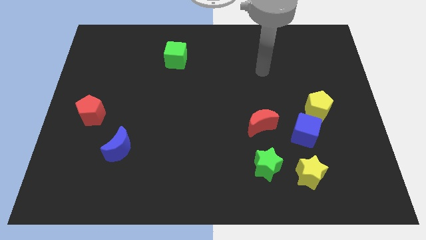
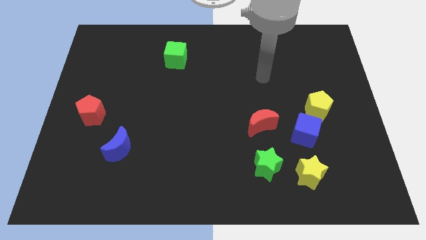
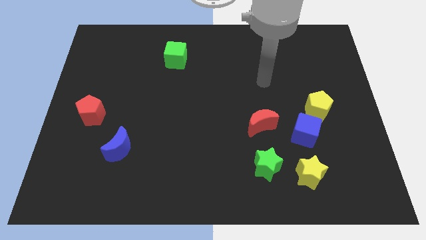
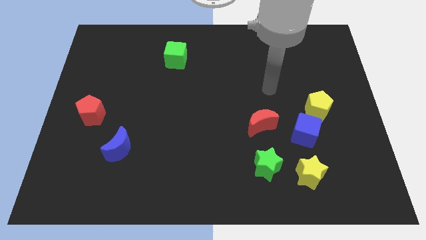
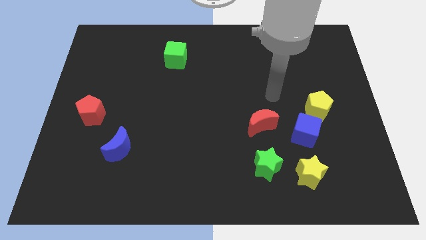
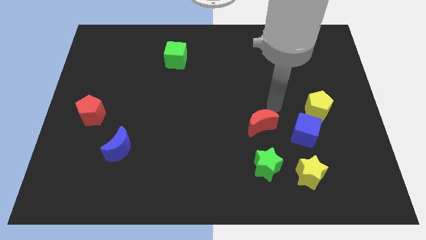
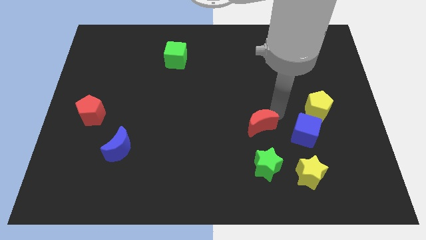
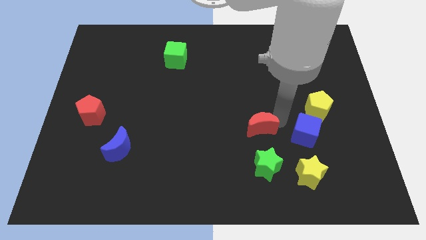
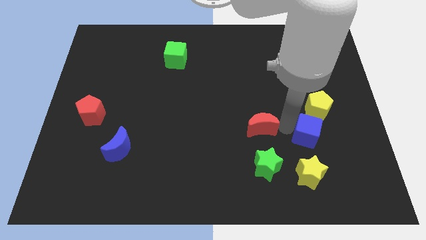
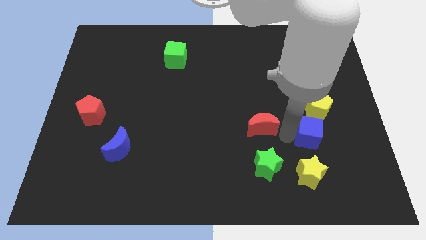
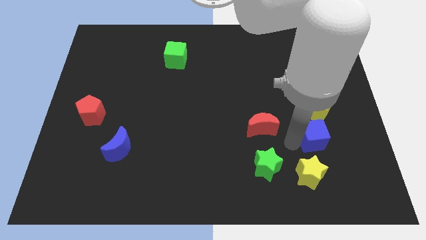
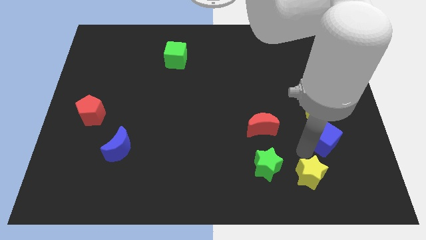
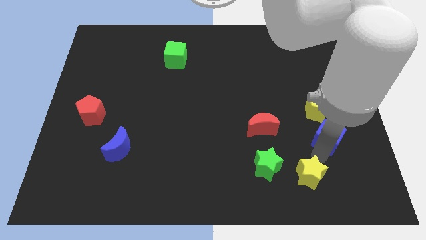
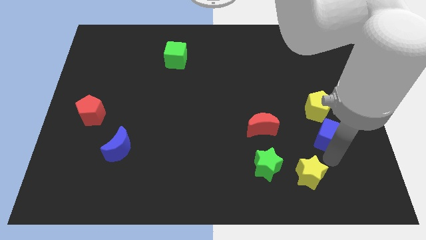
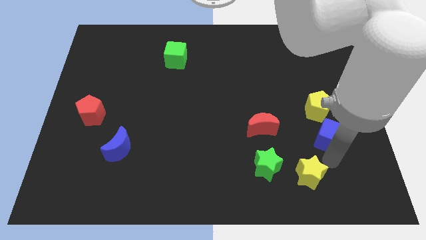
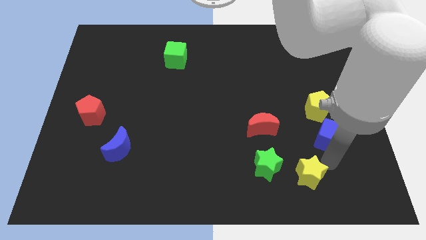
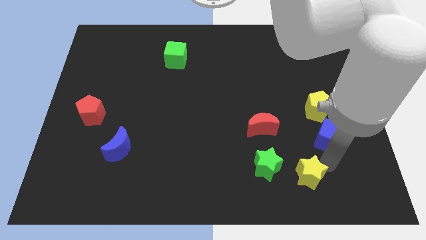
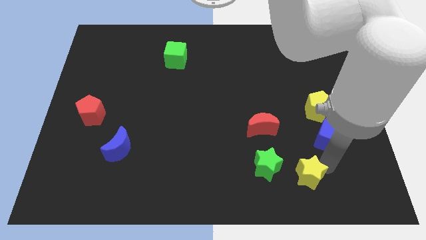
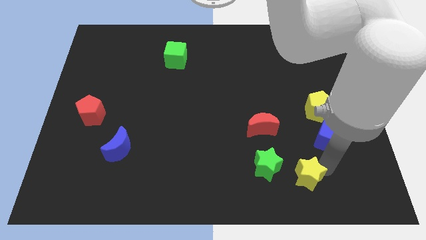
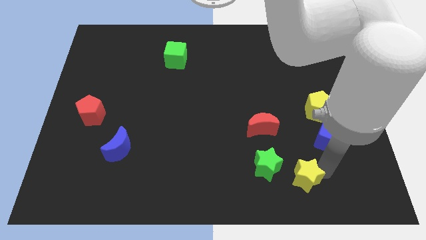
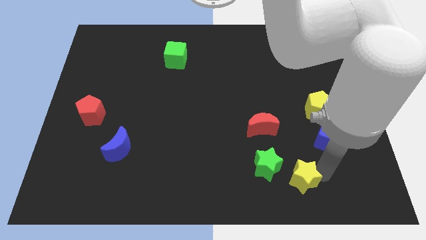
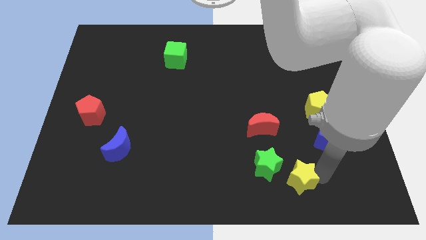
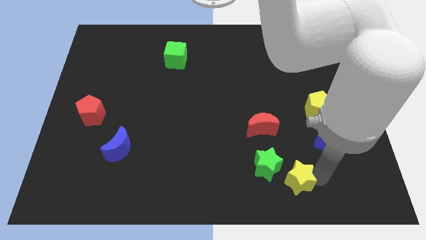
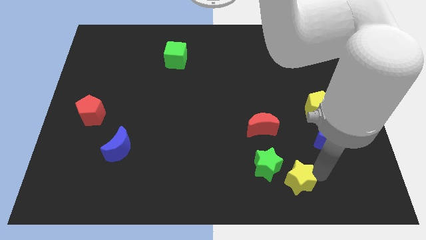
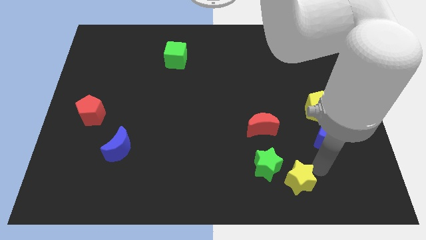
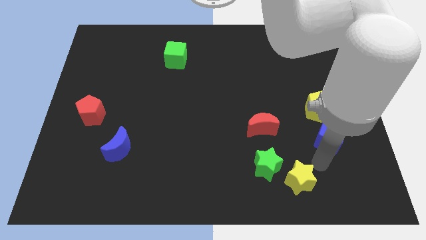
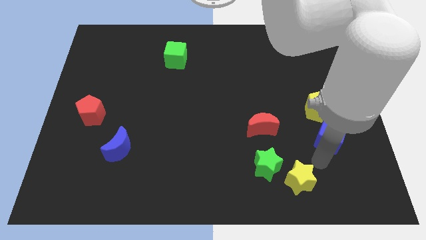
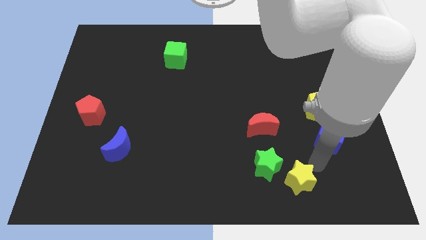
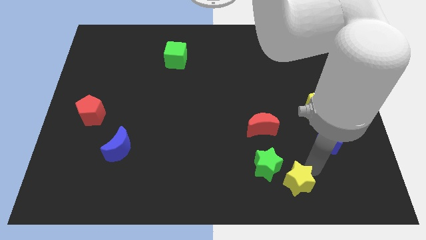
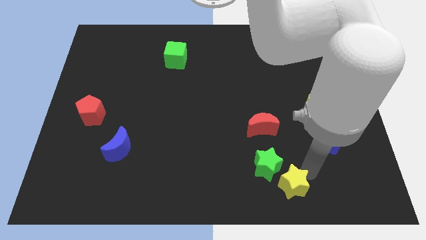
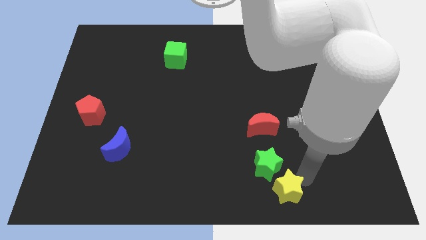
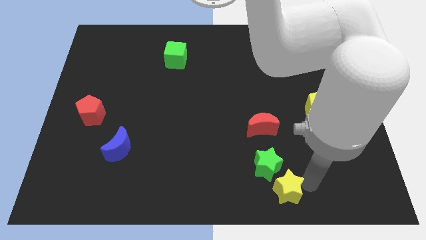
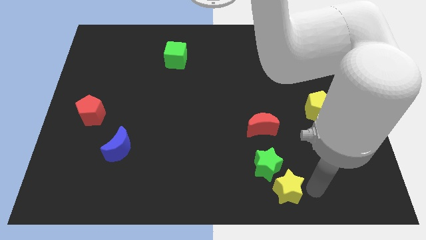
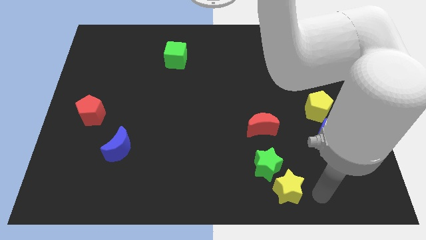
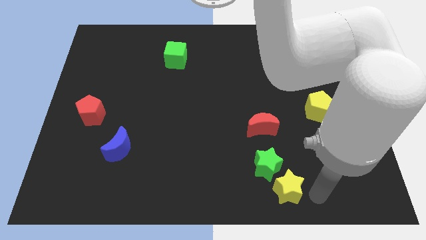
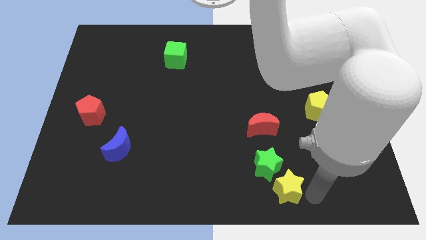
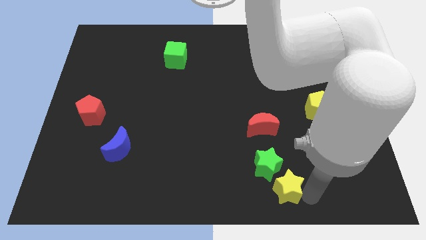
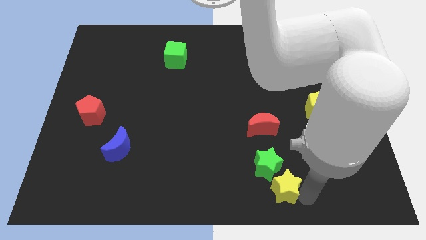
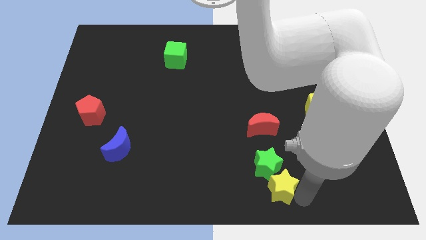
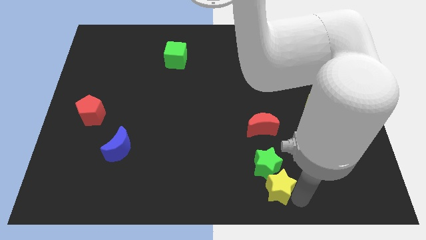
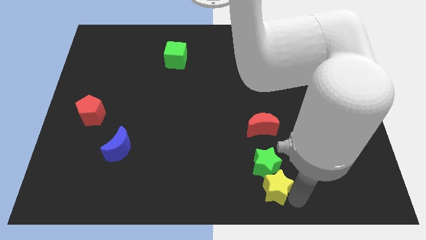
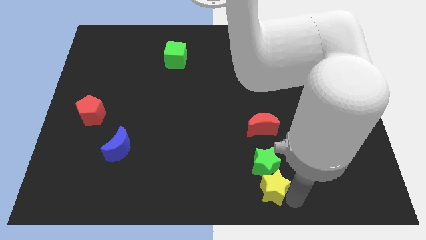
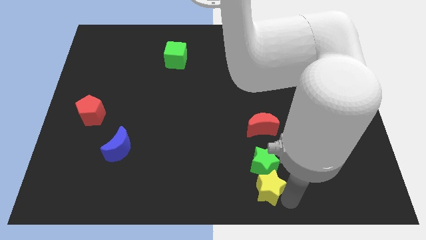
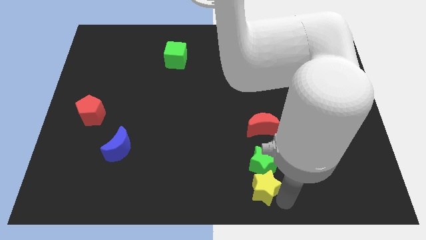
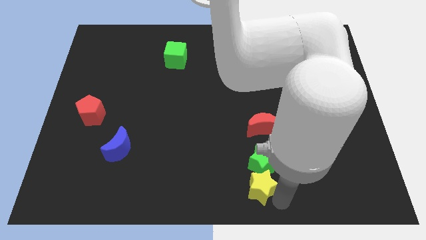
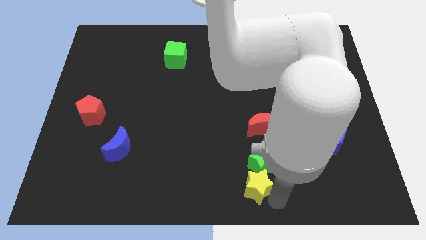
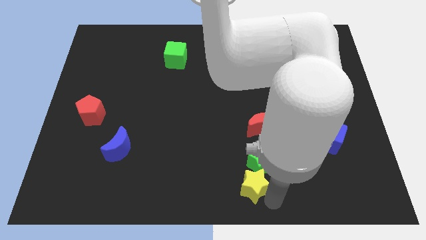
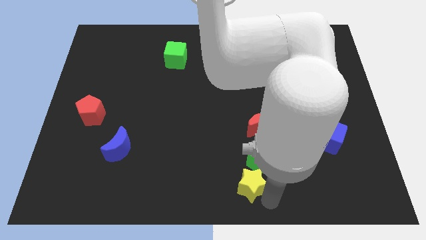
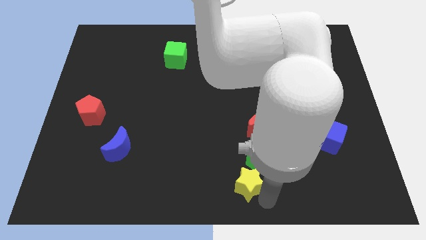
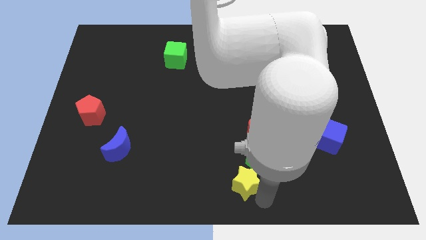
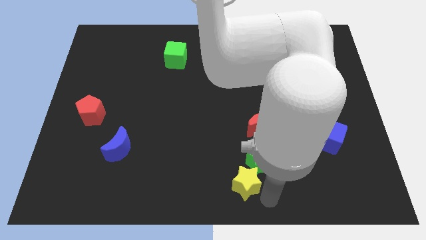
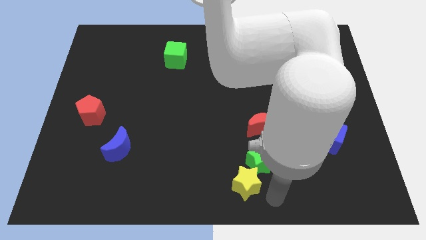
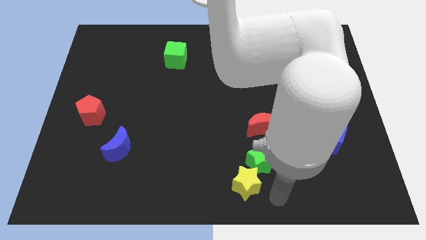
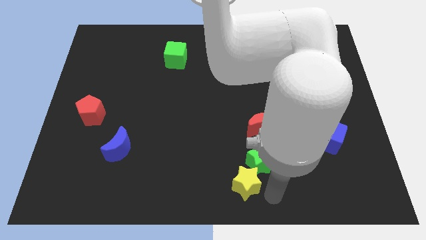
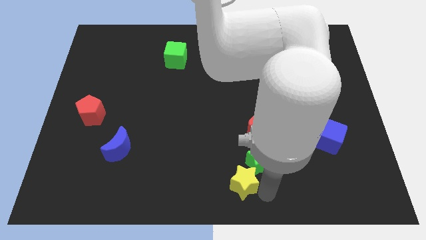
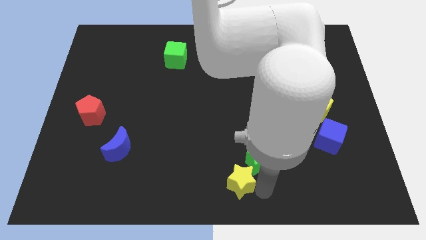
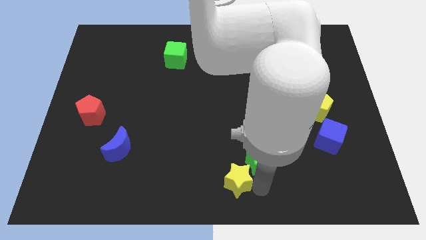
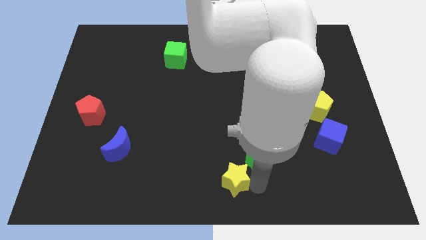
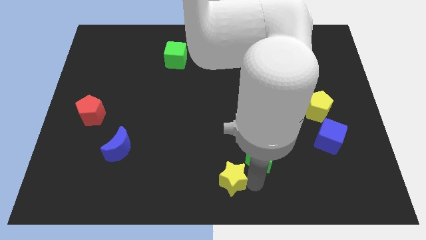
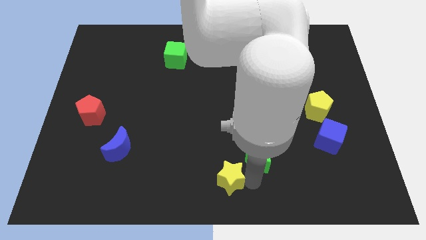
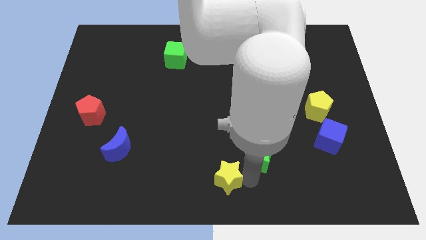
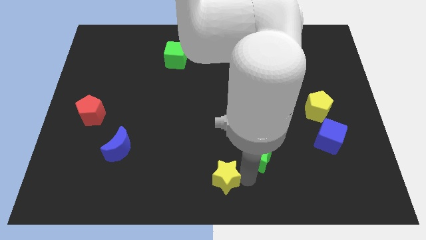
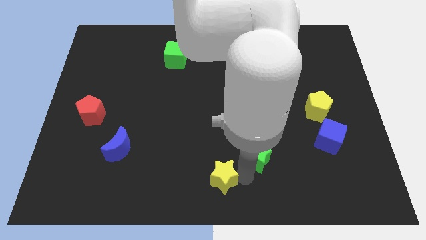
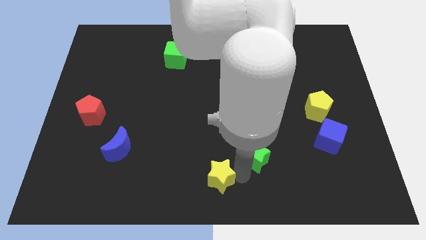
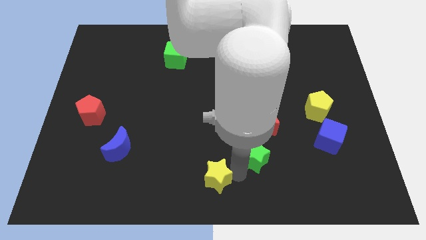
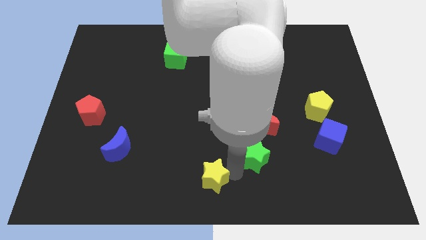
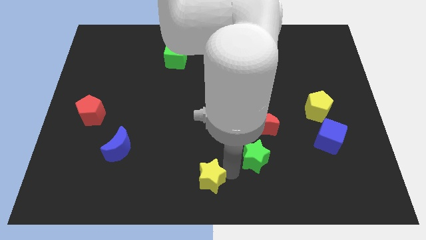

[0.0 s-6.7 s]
slide the yellow star to the left

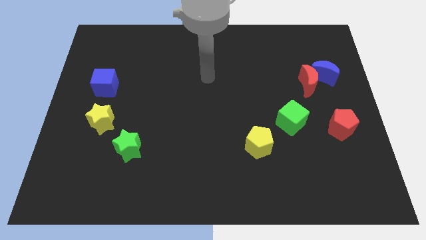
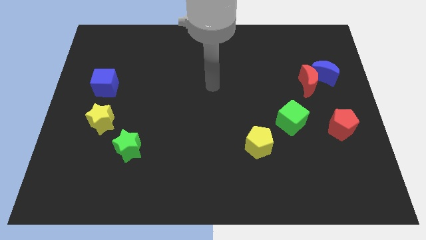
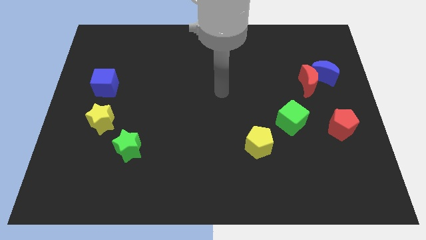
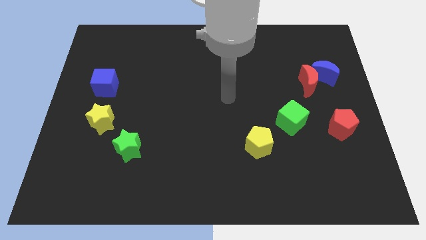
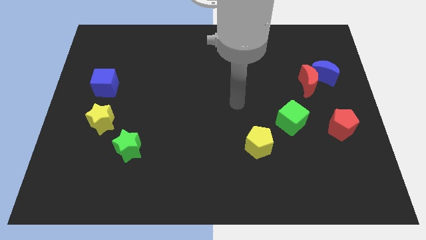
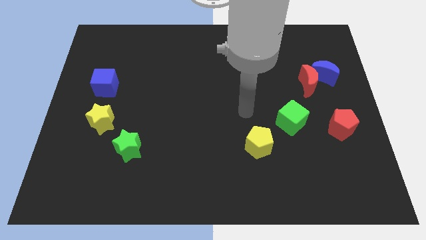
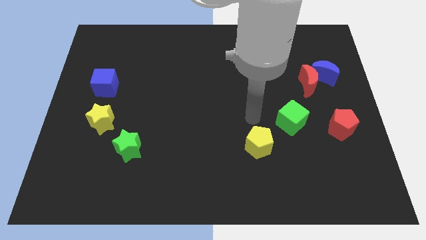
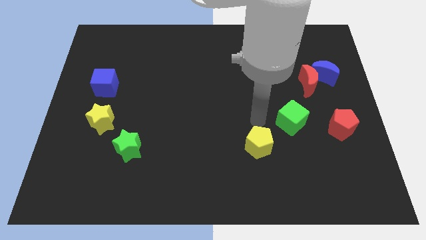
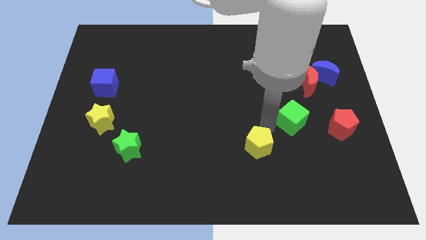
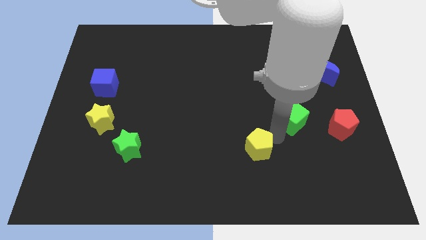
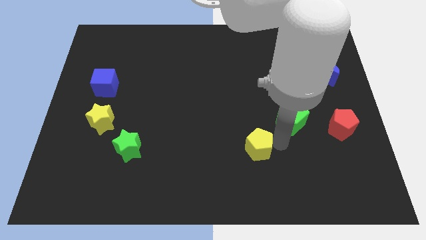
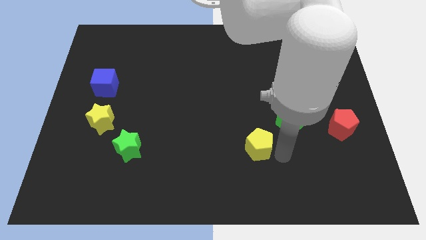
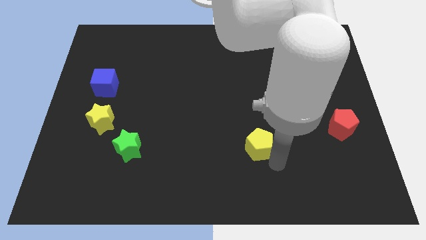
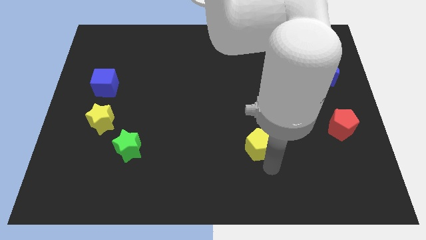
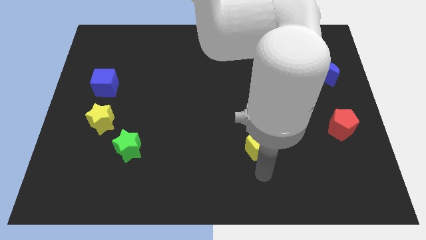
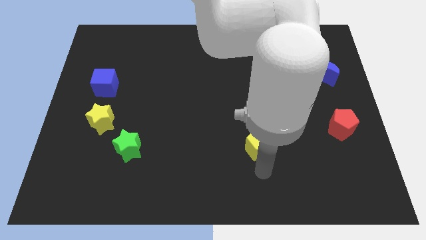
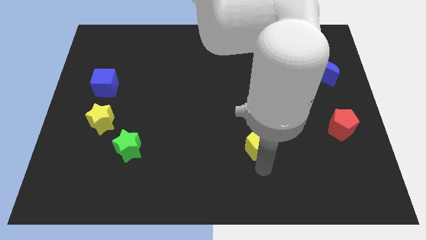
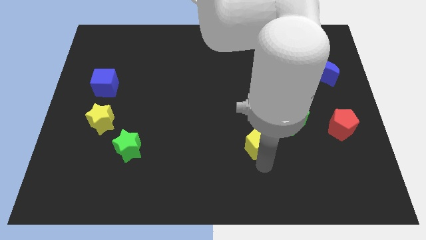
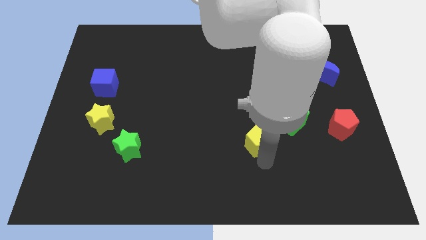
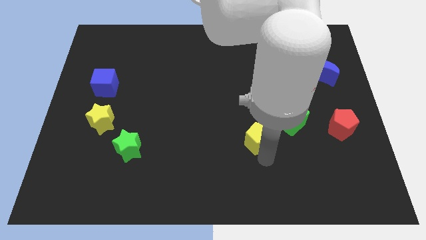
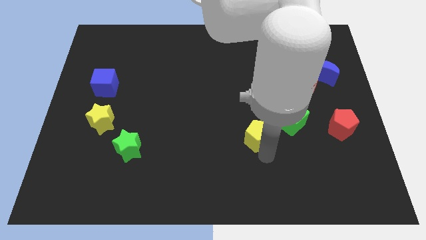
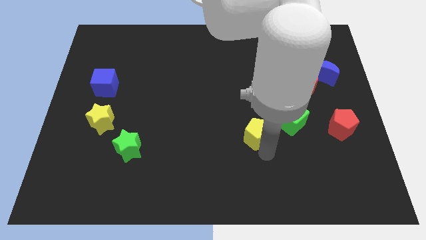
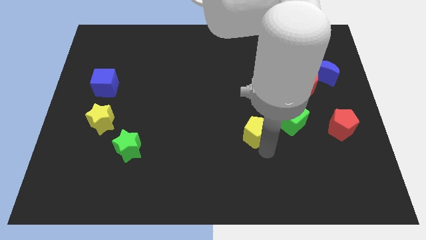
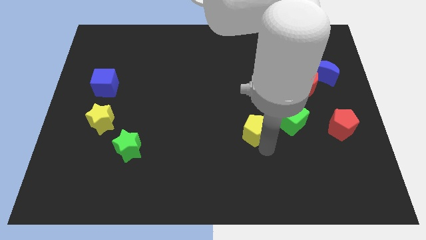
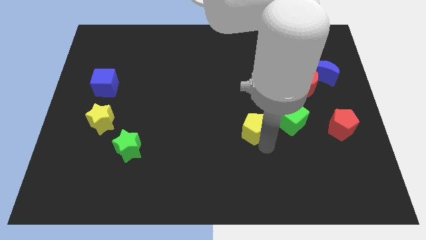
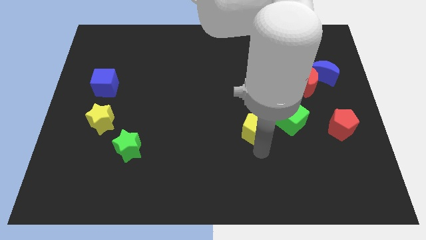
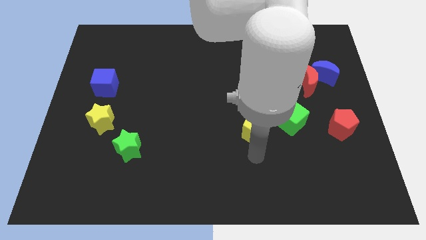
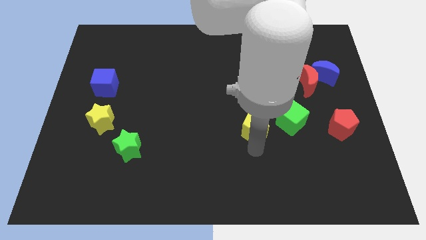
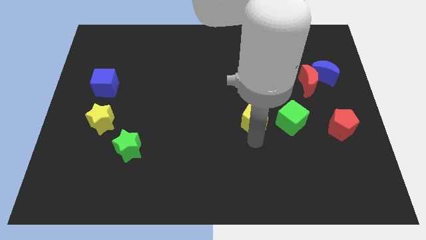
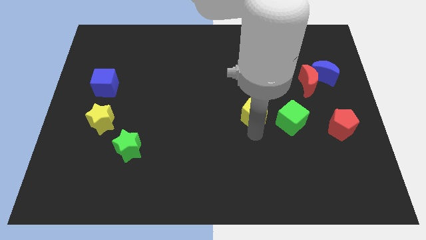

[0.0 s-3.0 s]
slightly move the yellow pentagon up
